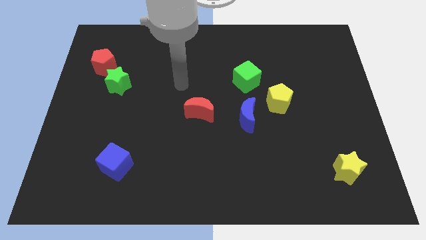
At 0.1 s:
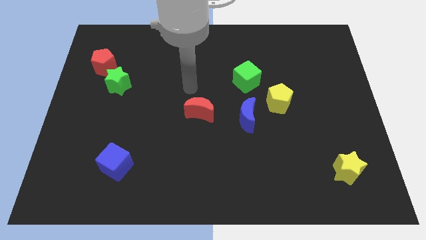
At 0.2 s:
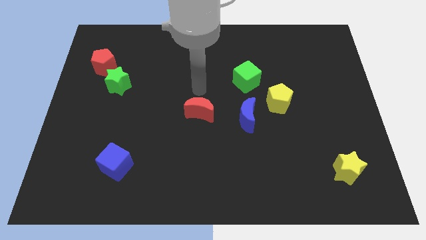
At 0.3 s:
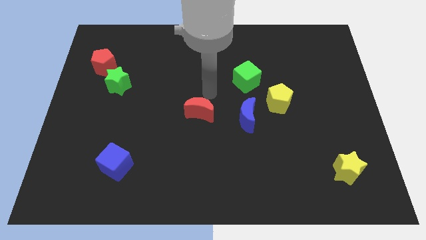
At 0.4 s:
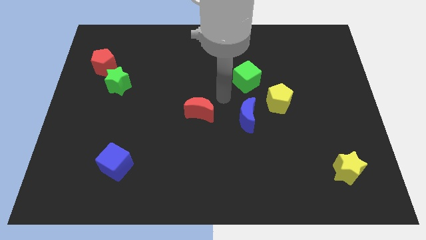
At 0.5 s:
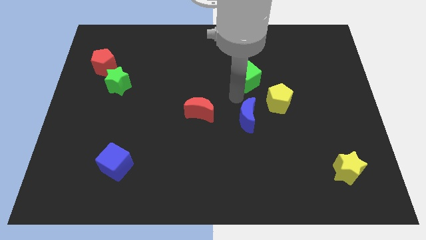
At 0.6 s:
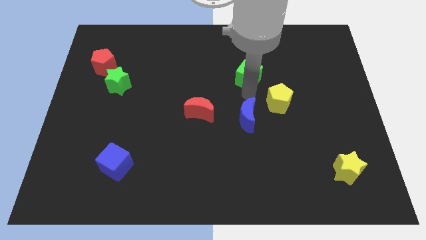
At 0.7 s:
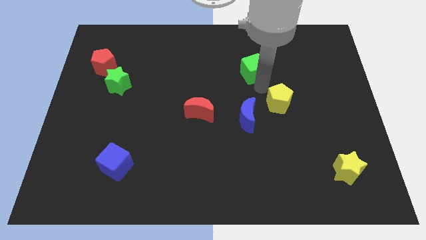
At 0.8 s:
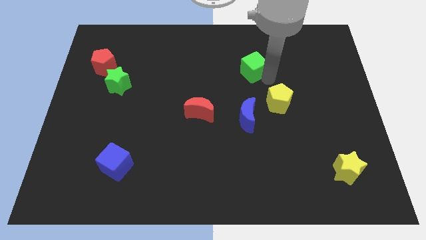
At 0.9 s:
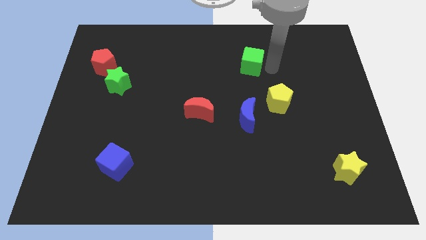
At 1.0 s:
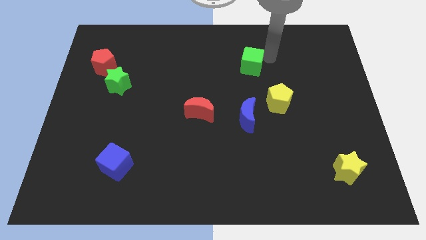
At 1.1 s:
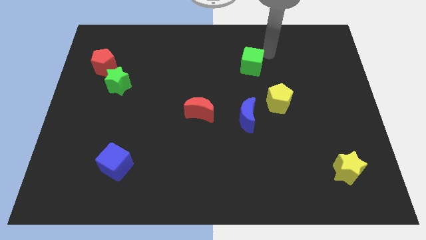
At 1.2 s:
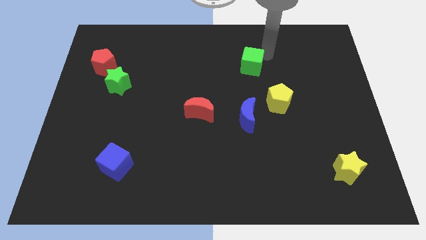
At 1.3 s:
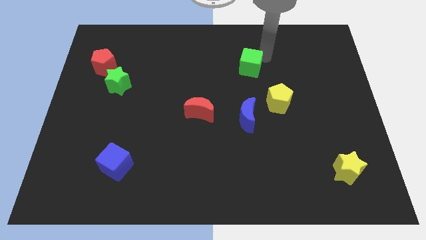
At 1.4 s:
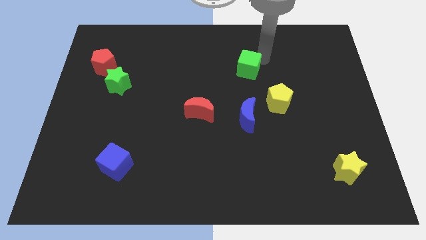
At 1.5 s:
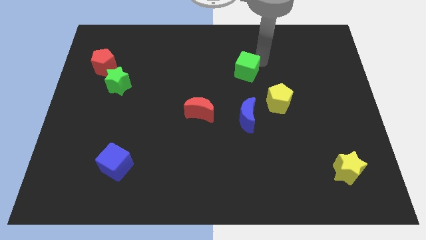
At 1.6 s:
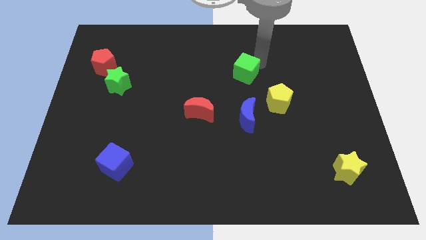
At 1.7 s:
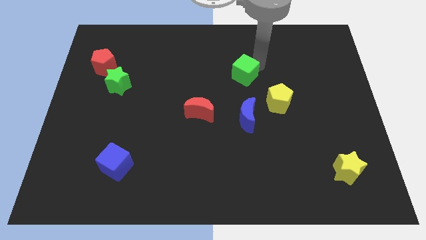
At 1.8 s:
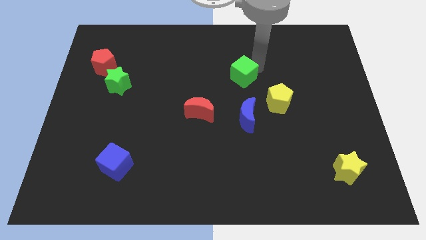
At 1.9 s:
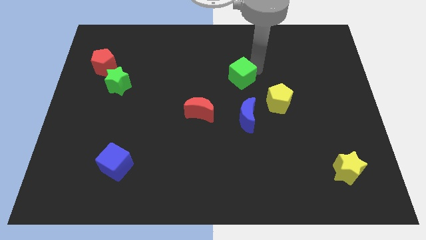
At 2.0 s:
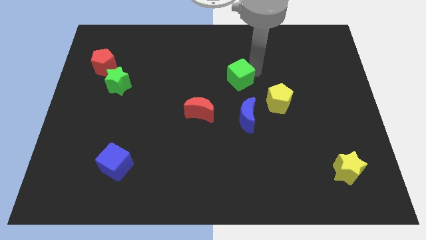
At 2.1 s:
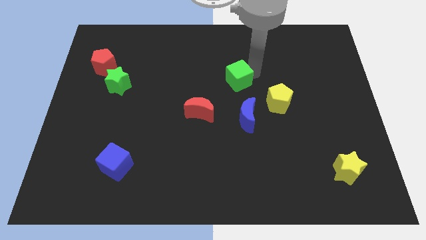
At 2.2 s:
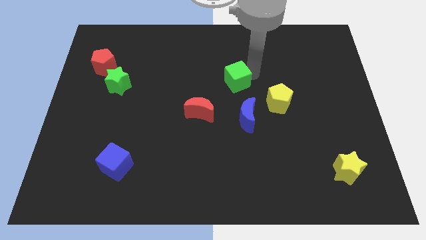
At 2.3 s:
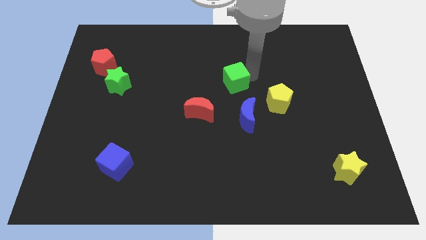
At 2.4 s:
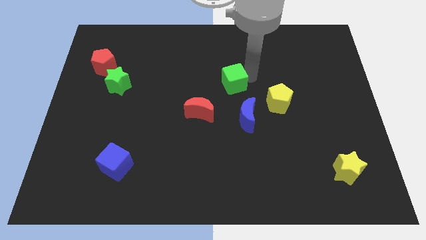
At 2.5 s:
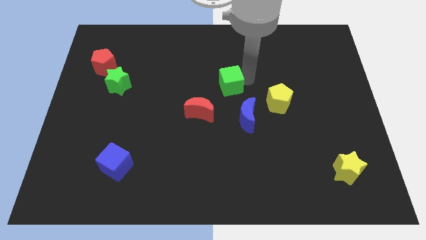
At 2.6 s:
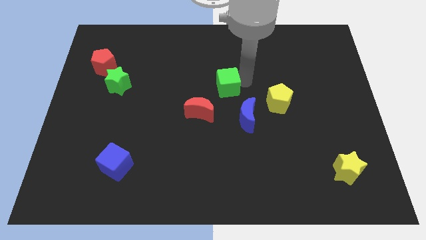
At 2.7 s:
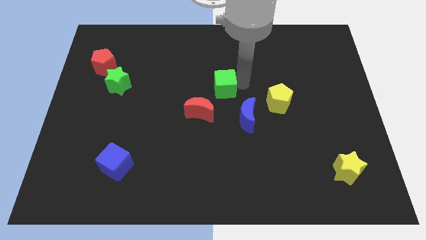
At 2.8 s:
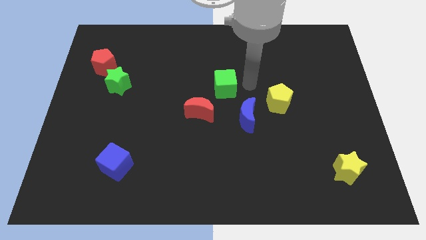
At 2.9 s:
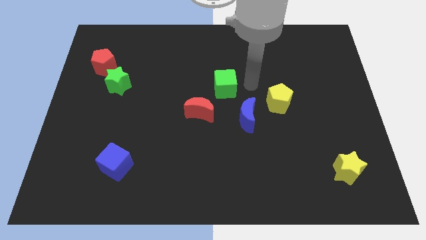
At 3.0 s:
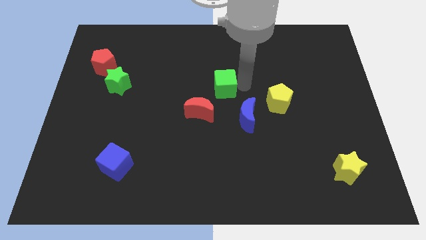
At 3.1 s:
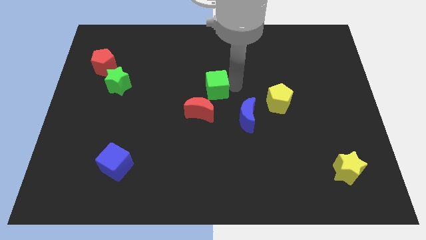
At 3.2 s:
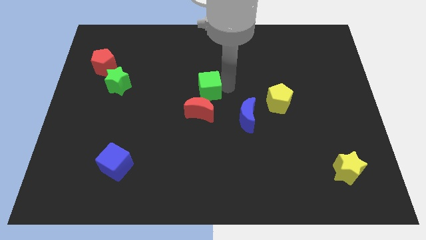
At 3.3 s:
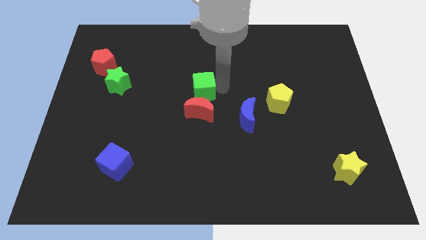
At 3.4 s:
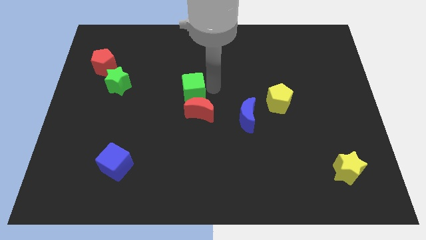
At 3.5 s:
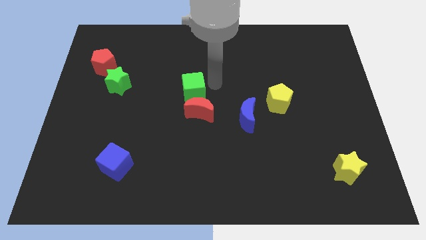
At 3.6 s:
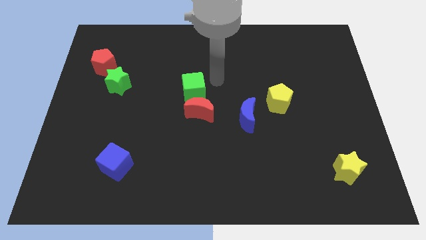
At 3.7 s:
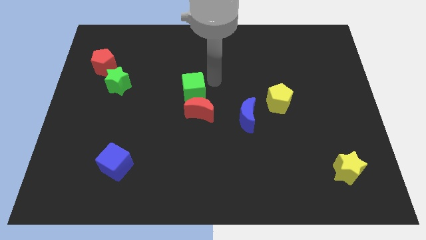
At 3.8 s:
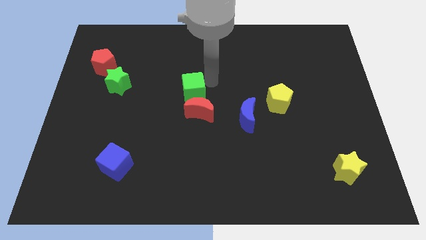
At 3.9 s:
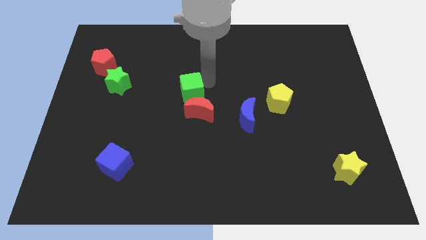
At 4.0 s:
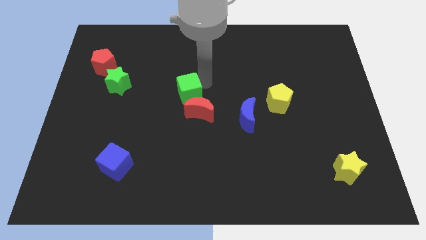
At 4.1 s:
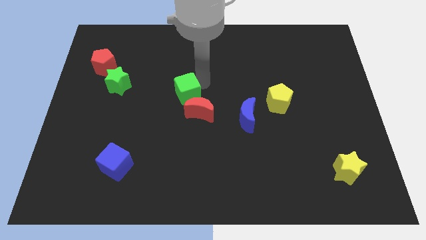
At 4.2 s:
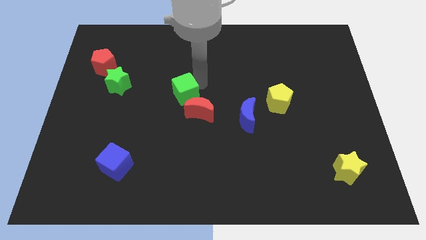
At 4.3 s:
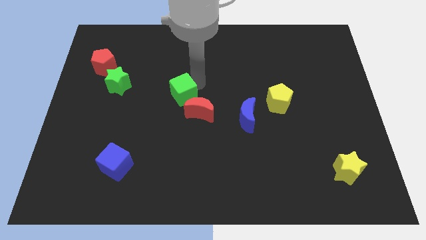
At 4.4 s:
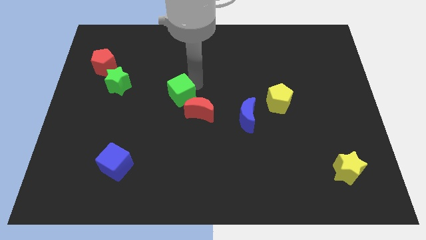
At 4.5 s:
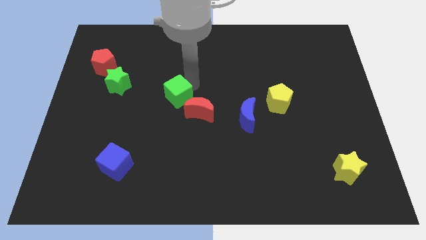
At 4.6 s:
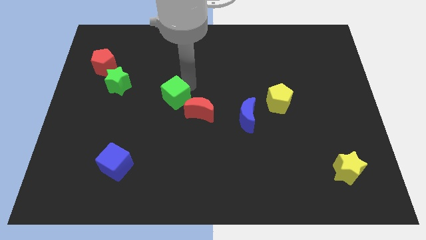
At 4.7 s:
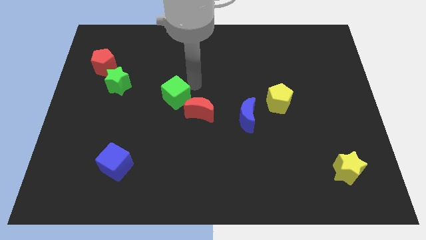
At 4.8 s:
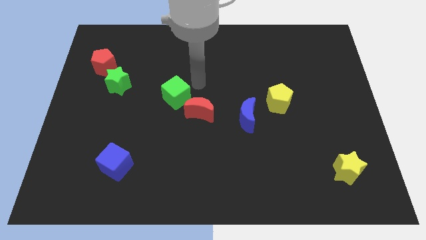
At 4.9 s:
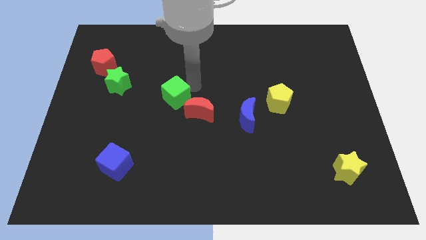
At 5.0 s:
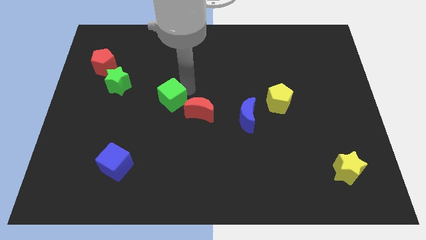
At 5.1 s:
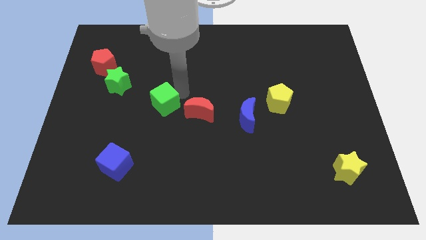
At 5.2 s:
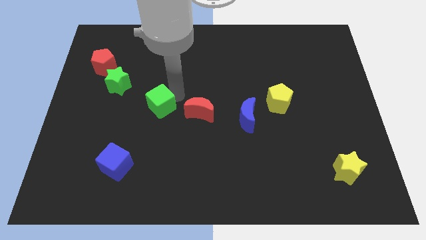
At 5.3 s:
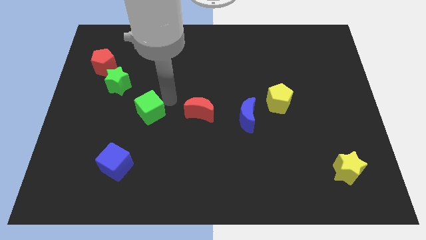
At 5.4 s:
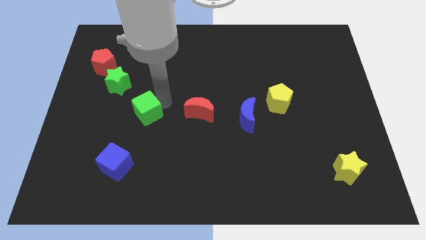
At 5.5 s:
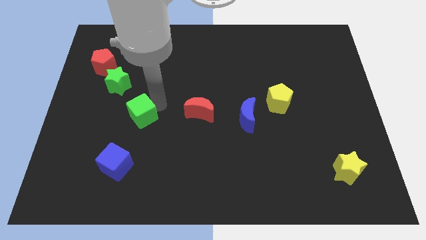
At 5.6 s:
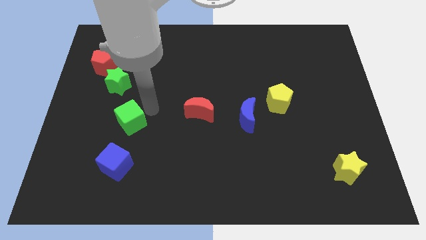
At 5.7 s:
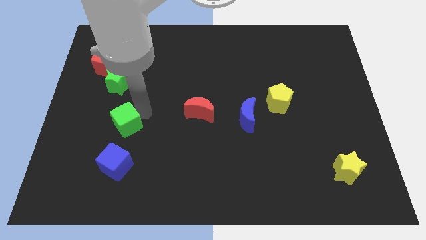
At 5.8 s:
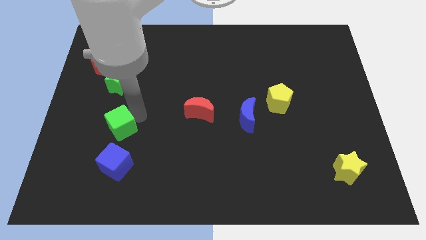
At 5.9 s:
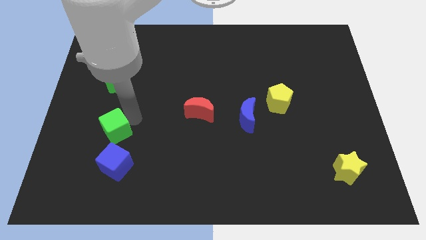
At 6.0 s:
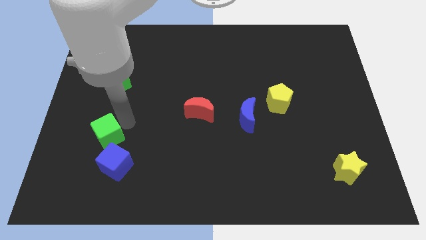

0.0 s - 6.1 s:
slide the green cube diagonally up and to the left of the blue cube

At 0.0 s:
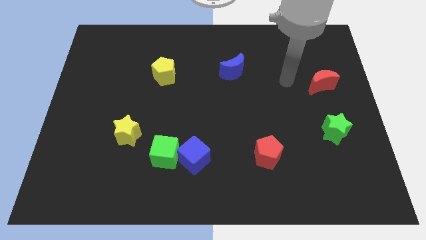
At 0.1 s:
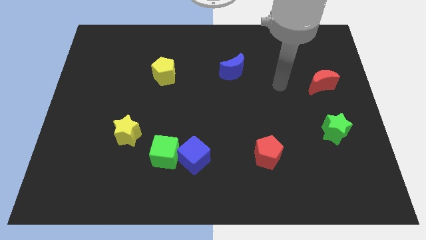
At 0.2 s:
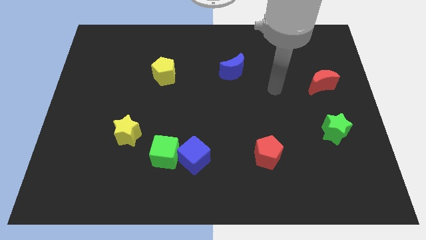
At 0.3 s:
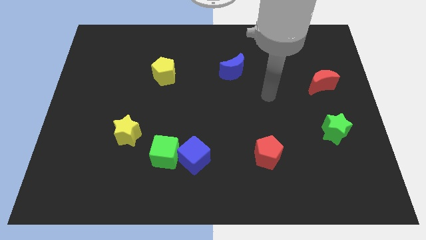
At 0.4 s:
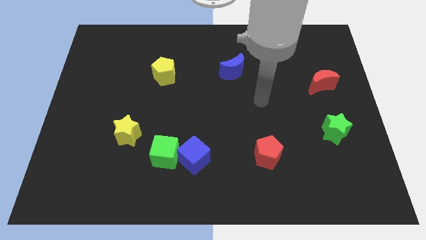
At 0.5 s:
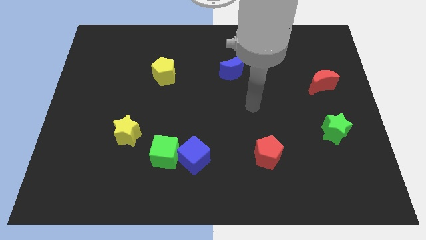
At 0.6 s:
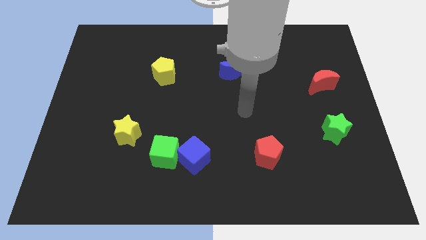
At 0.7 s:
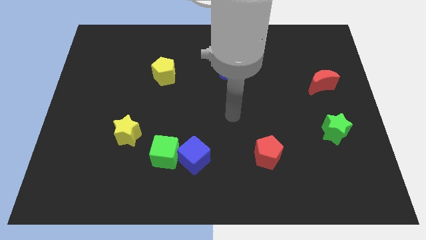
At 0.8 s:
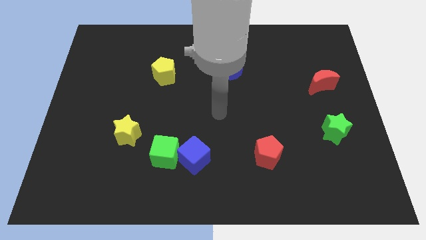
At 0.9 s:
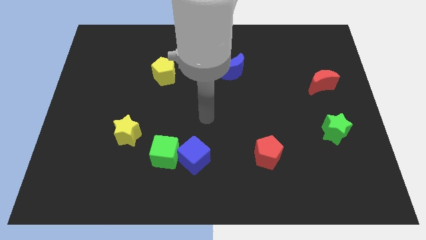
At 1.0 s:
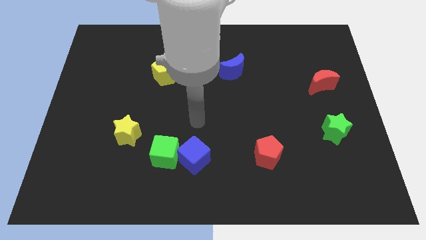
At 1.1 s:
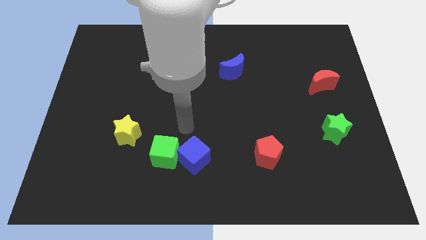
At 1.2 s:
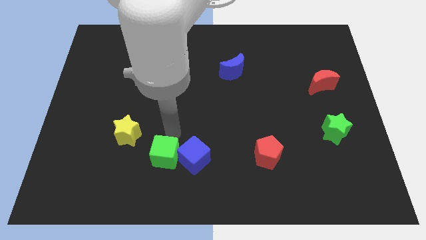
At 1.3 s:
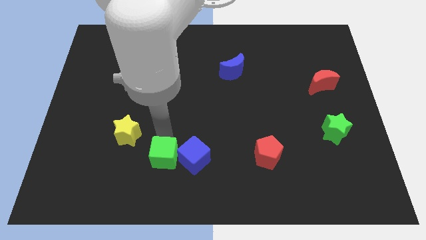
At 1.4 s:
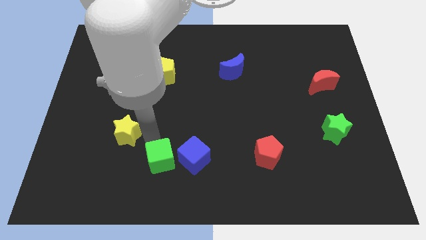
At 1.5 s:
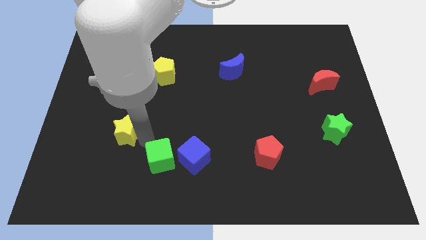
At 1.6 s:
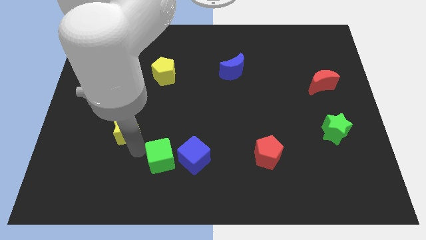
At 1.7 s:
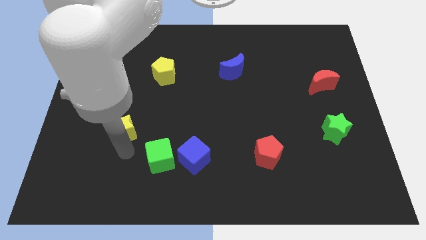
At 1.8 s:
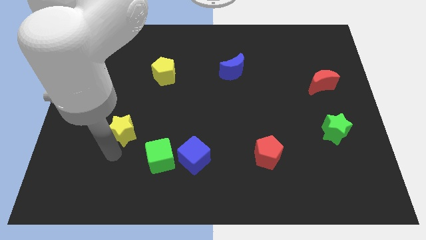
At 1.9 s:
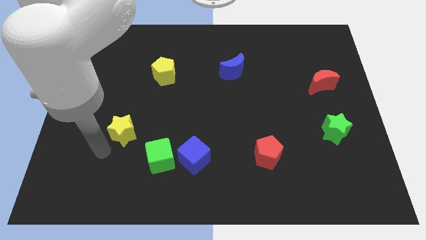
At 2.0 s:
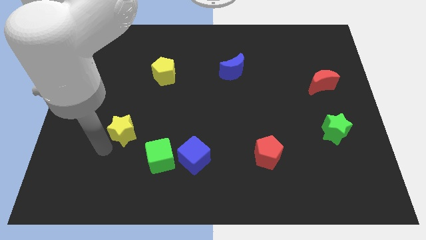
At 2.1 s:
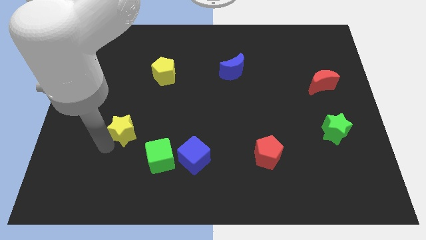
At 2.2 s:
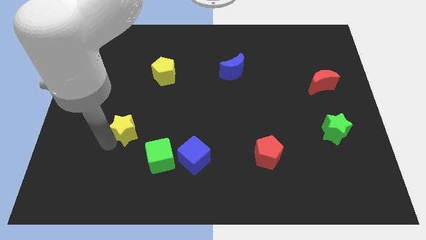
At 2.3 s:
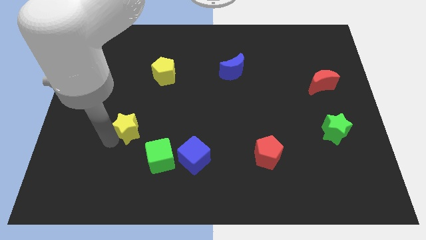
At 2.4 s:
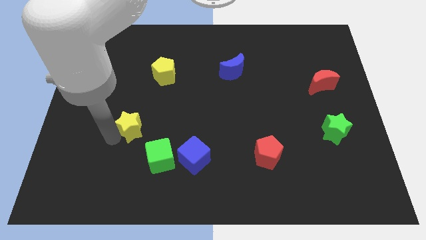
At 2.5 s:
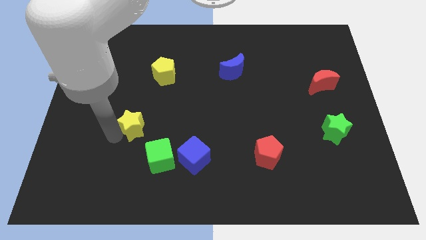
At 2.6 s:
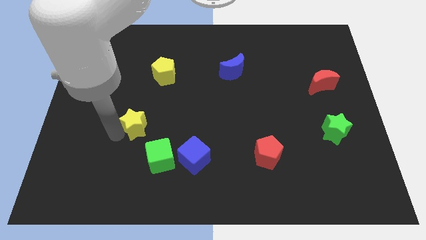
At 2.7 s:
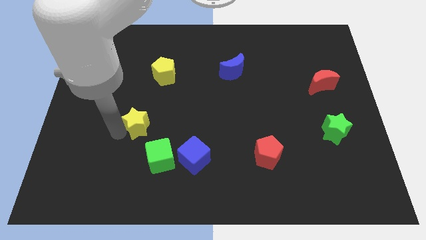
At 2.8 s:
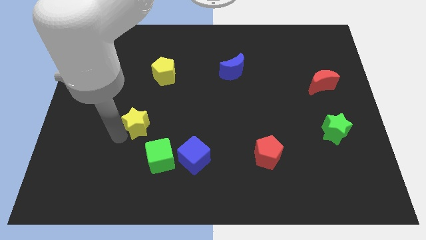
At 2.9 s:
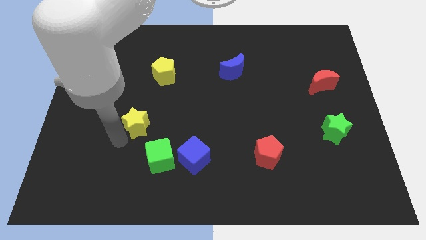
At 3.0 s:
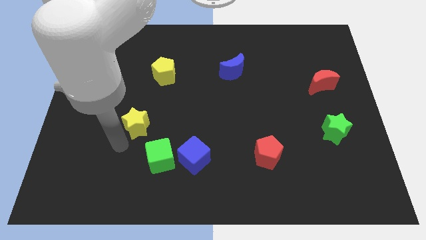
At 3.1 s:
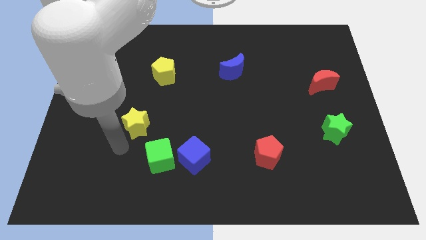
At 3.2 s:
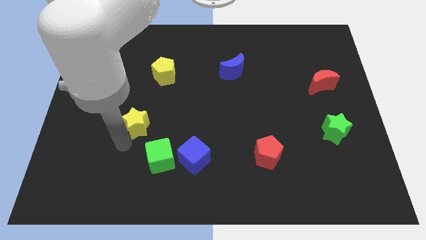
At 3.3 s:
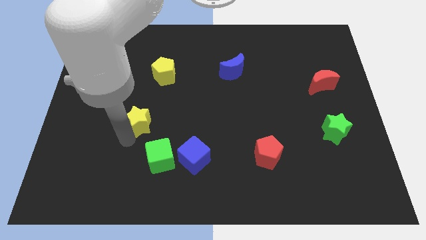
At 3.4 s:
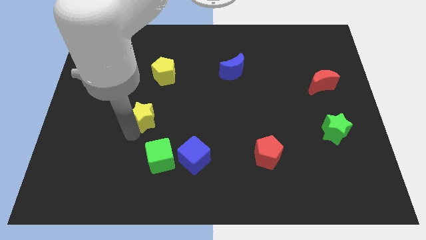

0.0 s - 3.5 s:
slide the yellow star to the bottom side of the yellow pentagon
